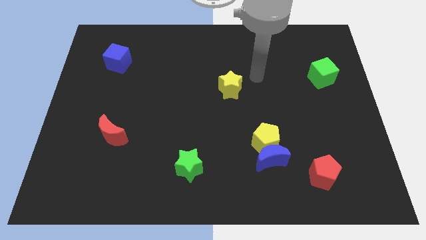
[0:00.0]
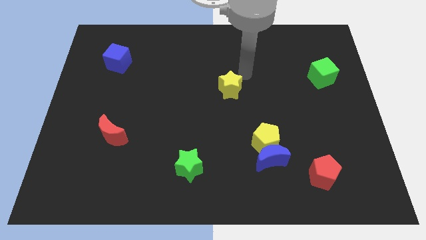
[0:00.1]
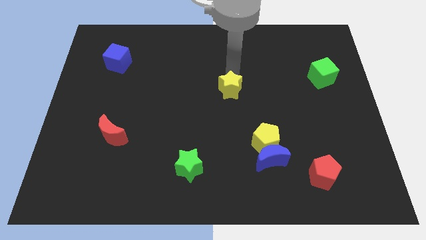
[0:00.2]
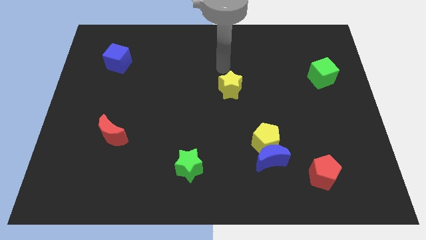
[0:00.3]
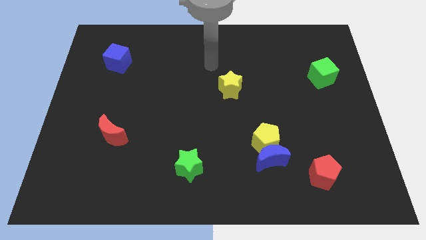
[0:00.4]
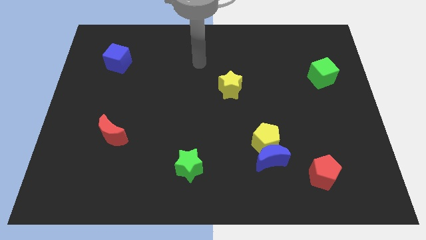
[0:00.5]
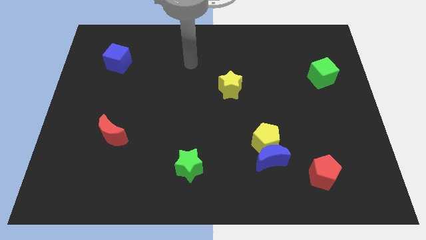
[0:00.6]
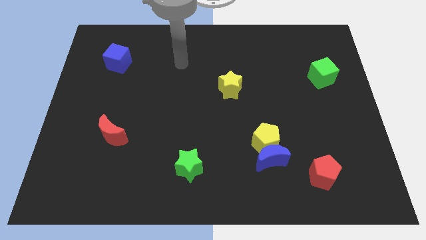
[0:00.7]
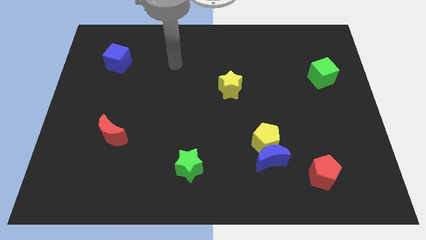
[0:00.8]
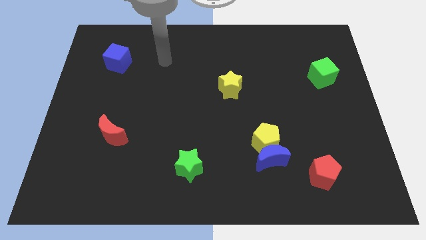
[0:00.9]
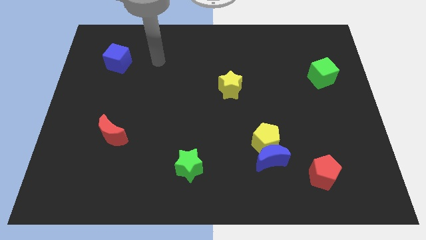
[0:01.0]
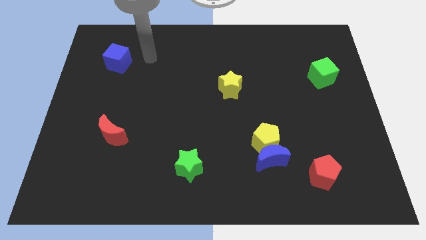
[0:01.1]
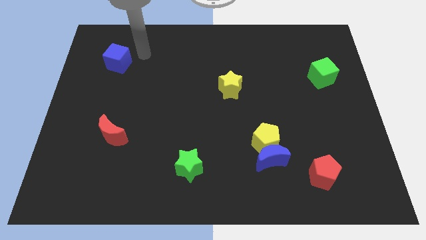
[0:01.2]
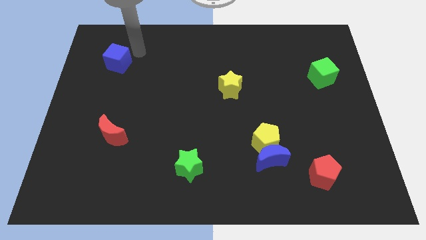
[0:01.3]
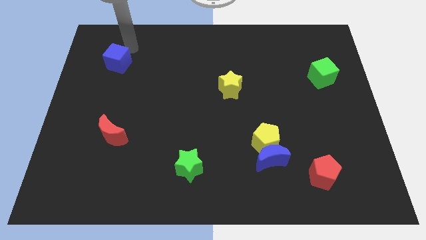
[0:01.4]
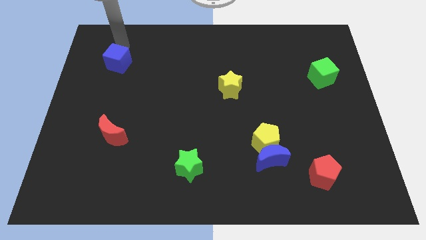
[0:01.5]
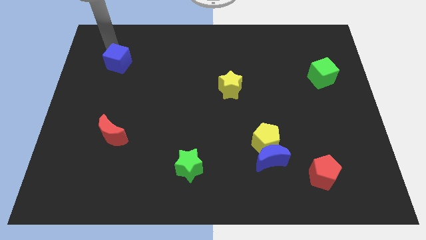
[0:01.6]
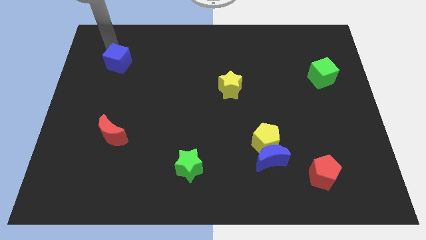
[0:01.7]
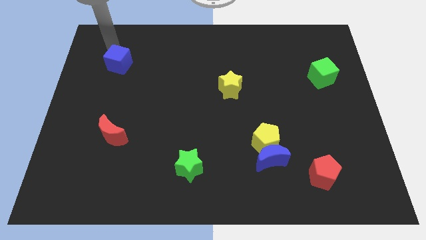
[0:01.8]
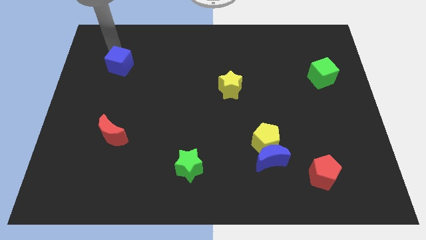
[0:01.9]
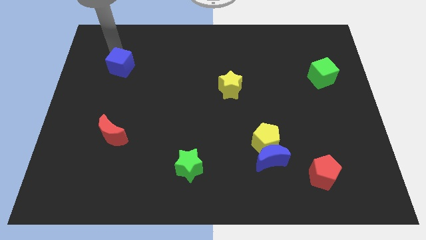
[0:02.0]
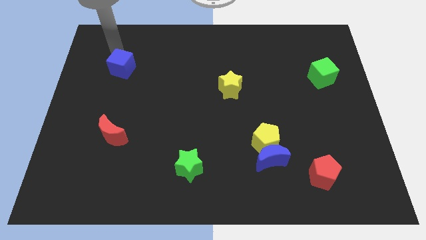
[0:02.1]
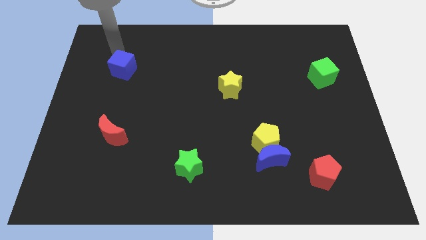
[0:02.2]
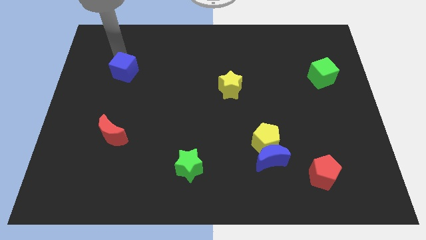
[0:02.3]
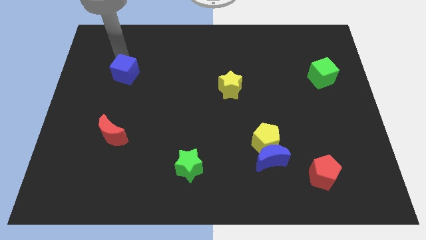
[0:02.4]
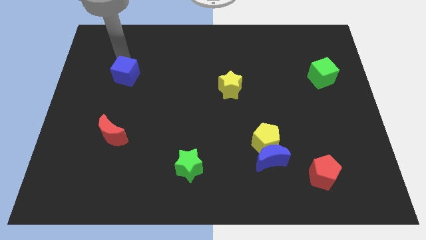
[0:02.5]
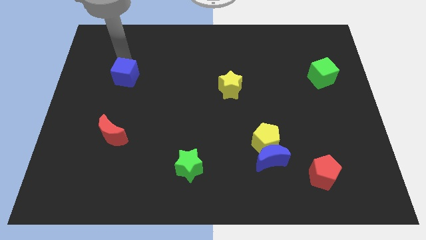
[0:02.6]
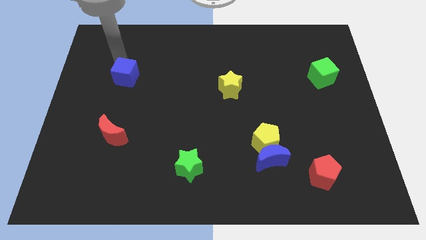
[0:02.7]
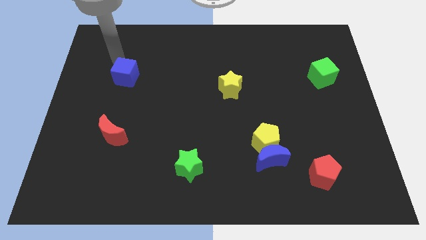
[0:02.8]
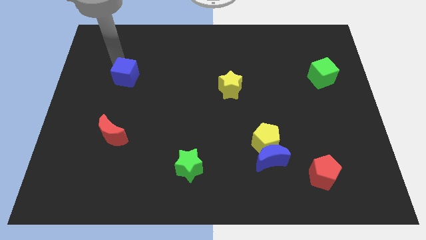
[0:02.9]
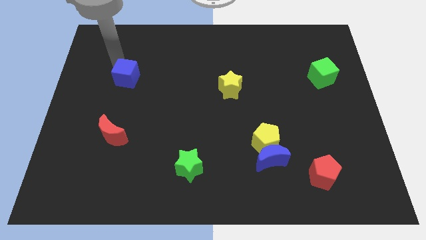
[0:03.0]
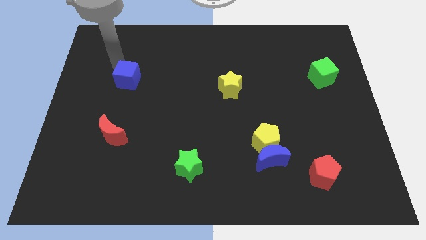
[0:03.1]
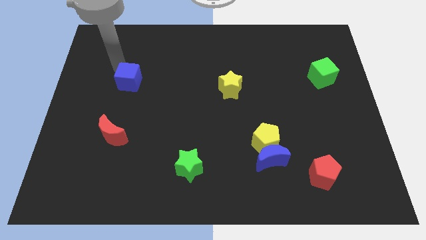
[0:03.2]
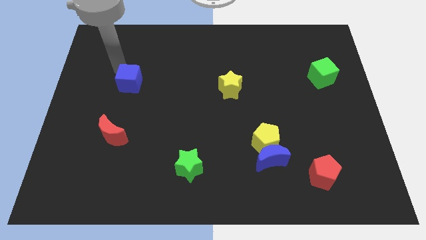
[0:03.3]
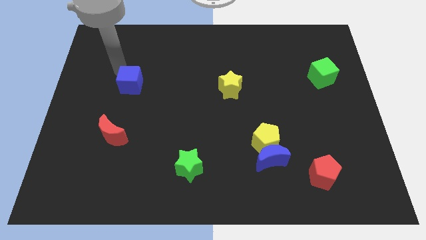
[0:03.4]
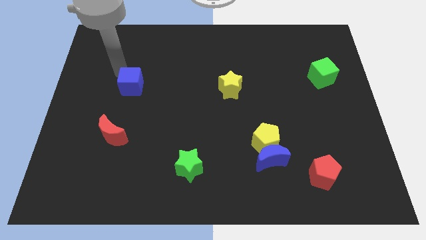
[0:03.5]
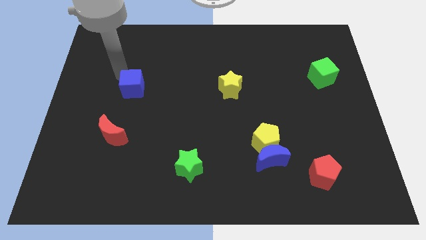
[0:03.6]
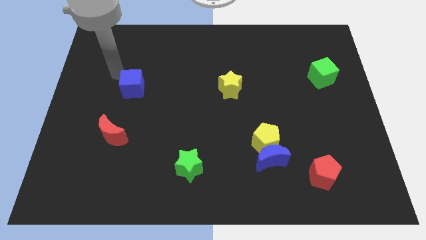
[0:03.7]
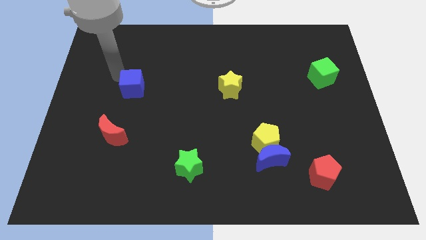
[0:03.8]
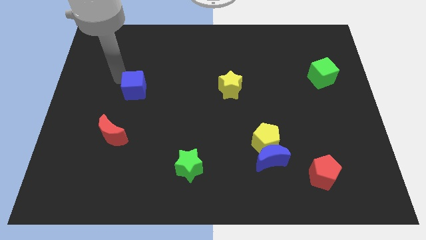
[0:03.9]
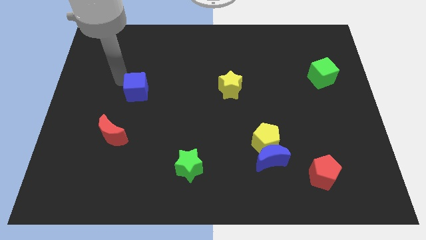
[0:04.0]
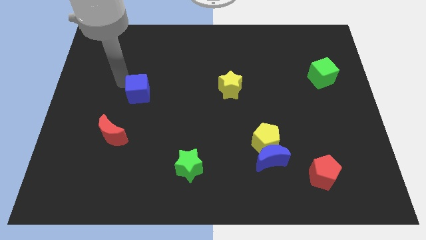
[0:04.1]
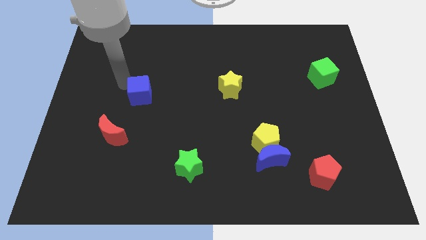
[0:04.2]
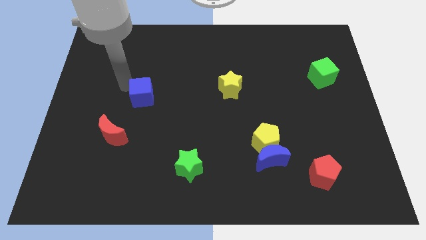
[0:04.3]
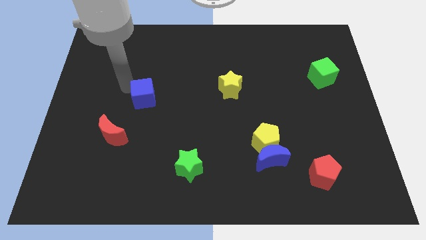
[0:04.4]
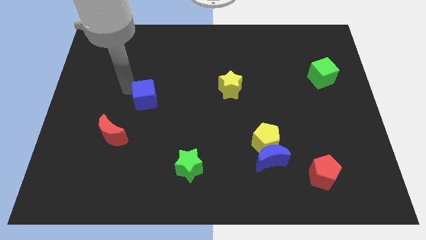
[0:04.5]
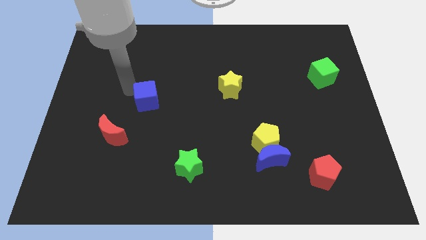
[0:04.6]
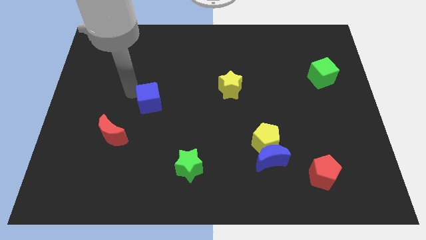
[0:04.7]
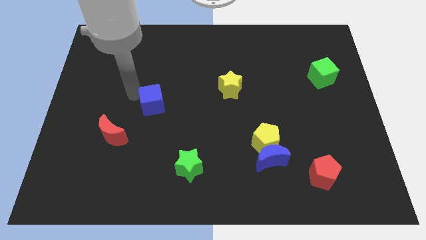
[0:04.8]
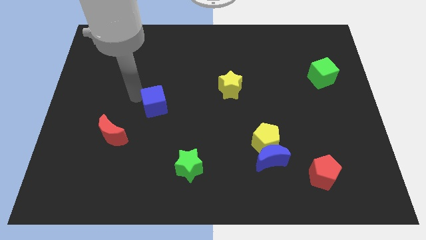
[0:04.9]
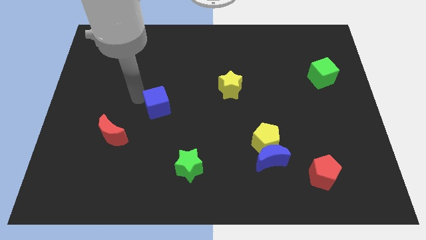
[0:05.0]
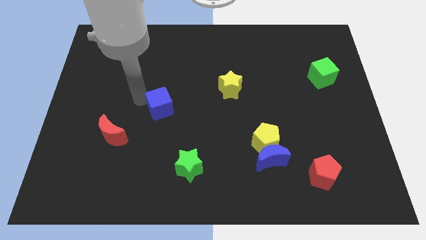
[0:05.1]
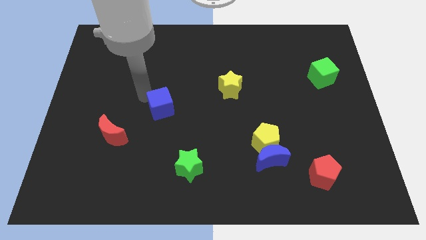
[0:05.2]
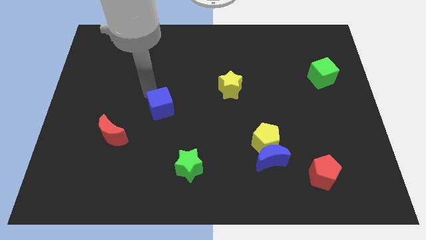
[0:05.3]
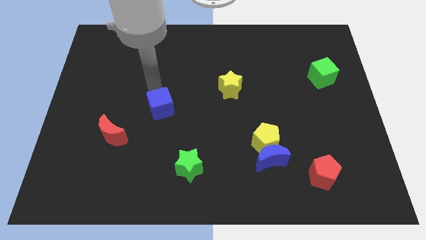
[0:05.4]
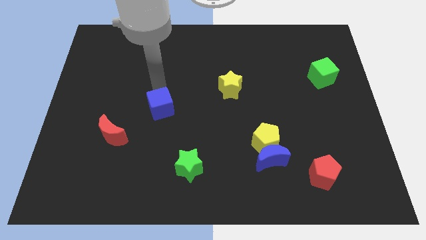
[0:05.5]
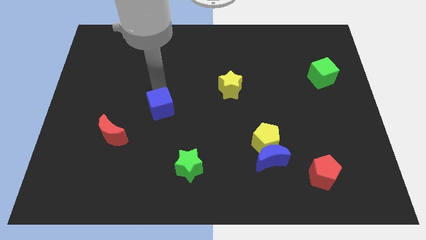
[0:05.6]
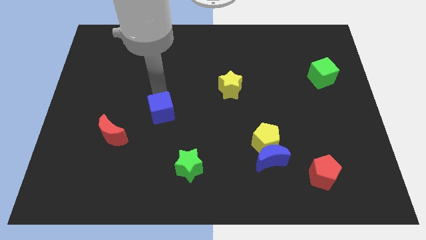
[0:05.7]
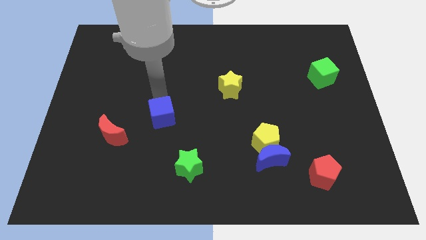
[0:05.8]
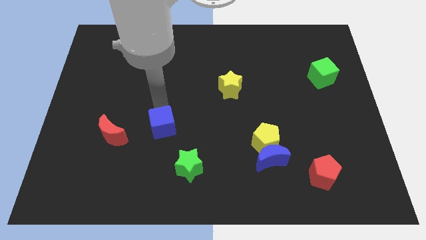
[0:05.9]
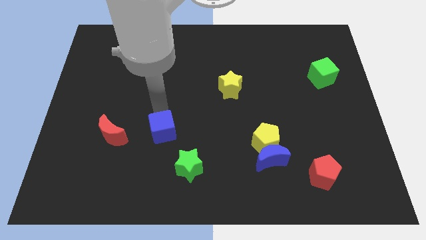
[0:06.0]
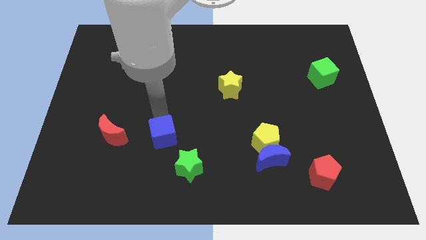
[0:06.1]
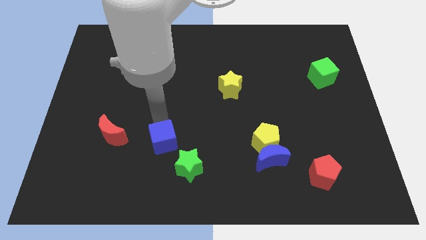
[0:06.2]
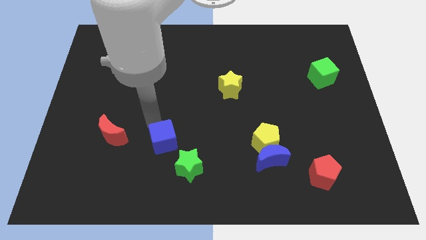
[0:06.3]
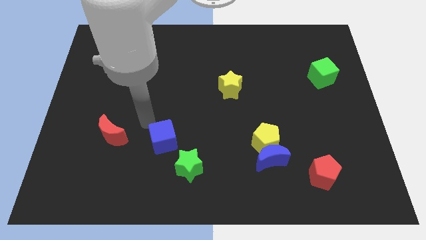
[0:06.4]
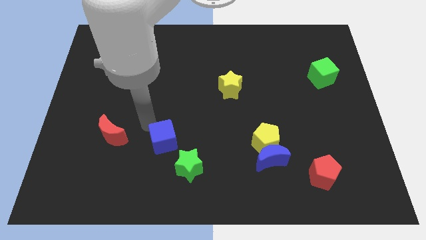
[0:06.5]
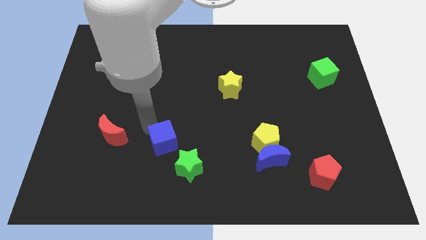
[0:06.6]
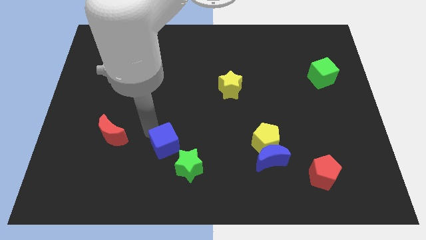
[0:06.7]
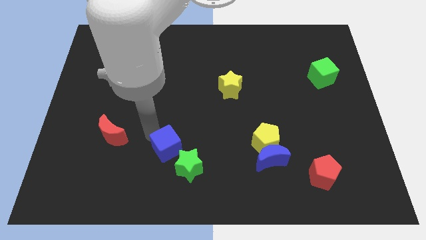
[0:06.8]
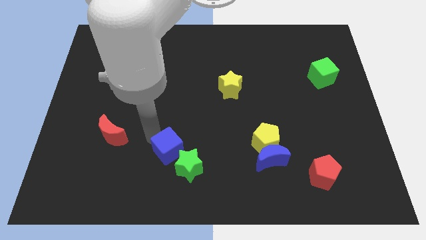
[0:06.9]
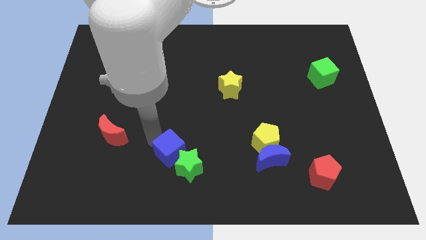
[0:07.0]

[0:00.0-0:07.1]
push the blue cube towards the green star

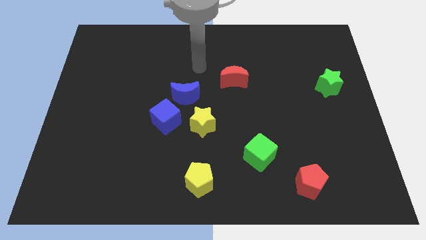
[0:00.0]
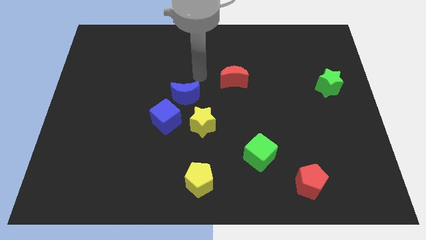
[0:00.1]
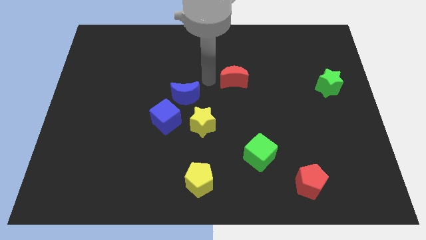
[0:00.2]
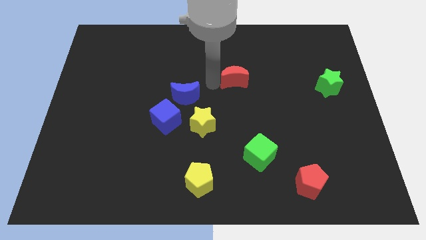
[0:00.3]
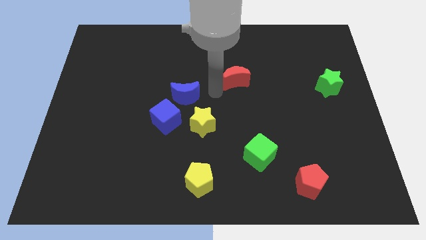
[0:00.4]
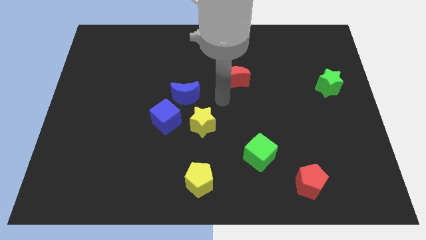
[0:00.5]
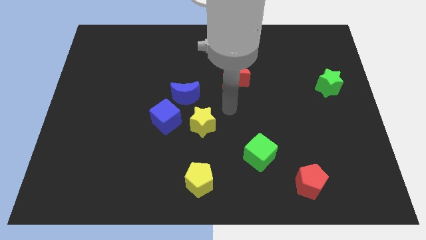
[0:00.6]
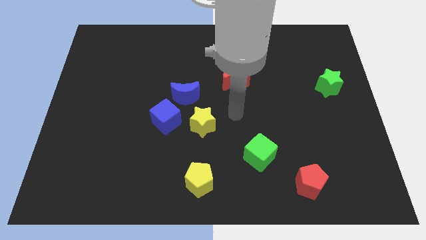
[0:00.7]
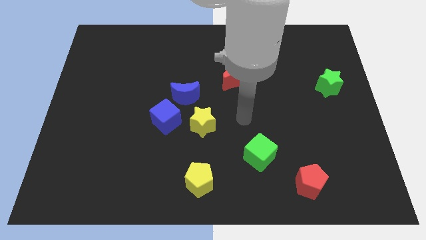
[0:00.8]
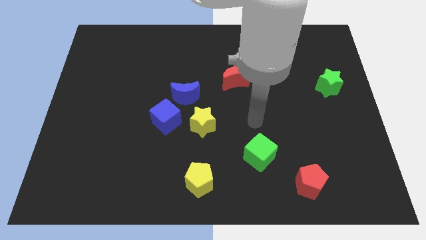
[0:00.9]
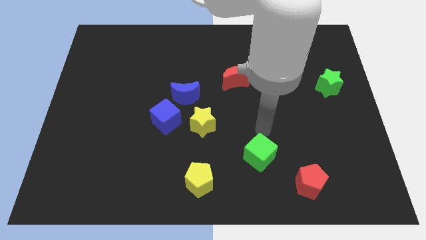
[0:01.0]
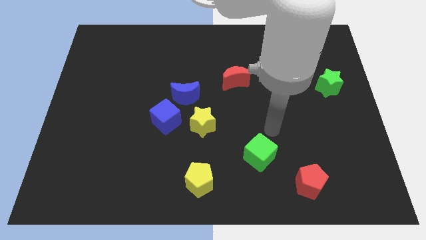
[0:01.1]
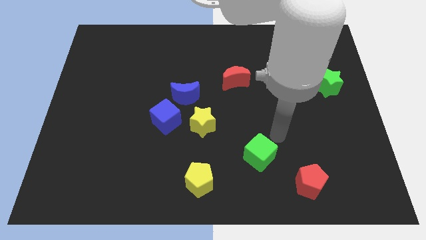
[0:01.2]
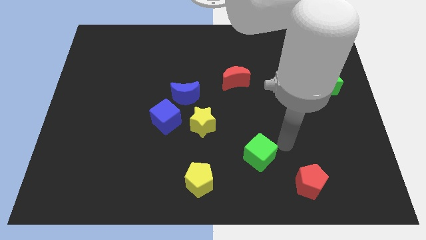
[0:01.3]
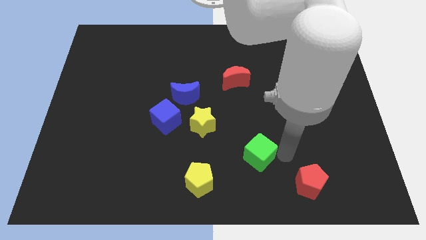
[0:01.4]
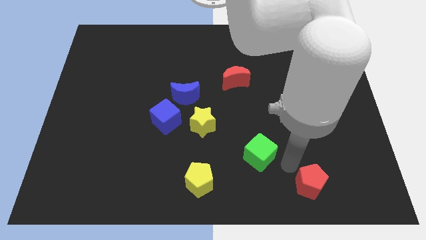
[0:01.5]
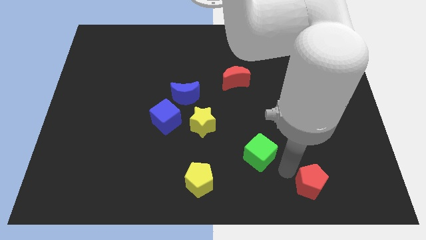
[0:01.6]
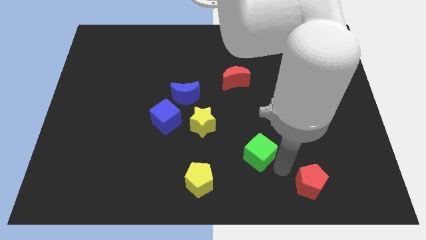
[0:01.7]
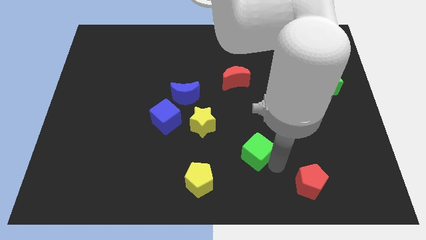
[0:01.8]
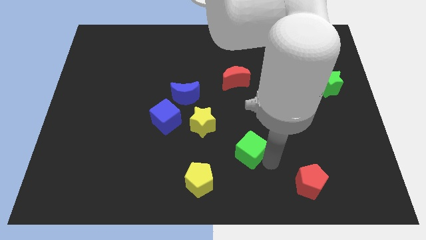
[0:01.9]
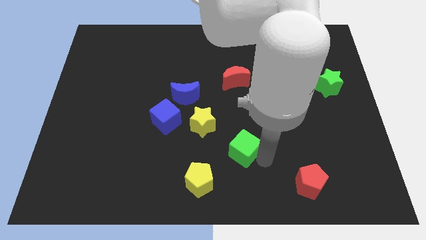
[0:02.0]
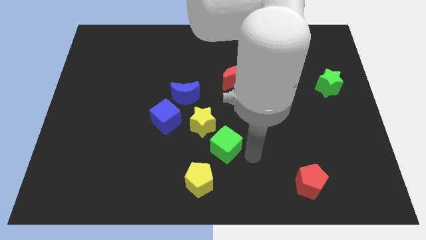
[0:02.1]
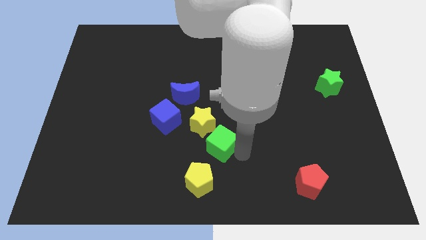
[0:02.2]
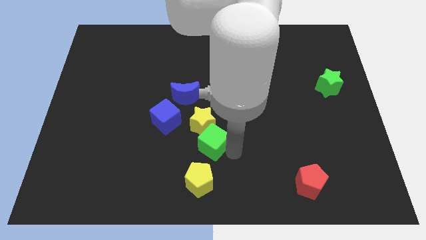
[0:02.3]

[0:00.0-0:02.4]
slide the green cube towards the yellow star
